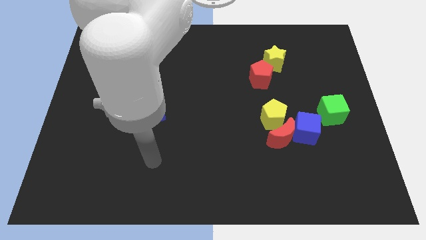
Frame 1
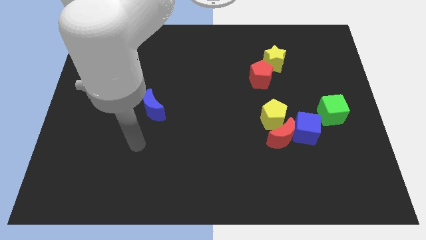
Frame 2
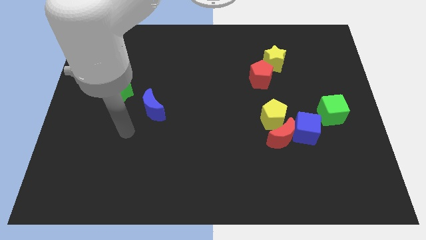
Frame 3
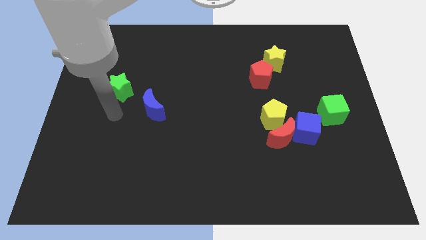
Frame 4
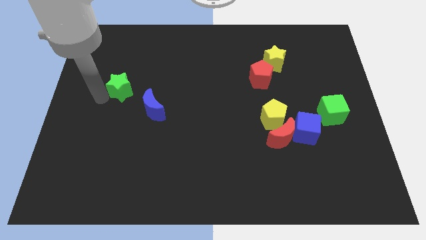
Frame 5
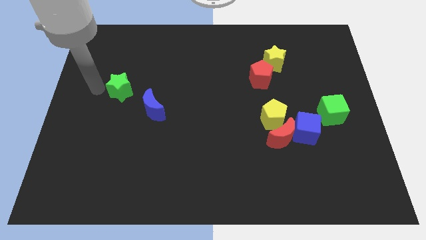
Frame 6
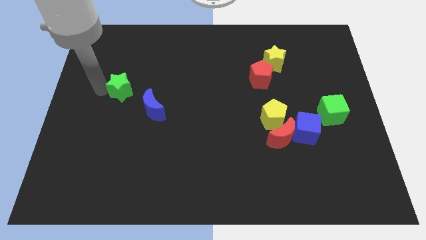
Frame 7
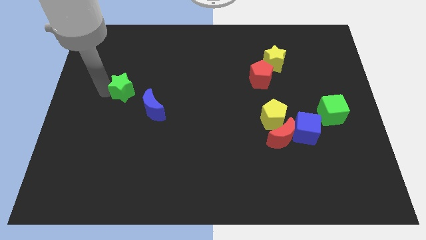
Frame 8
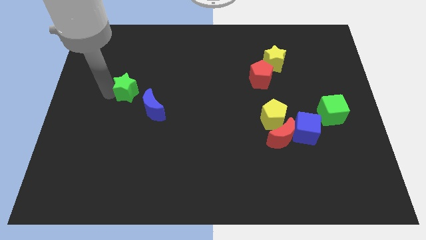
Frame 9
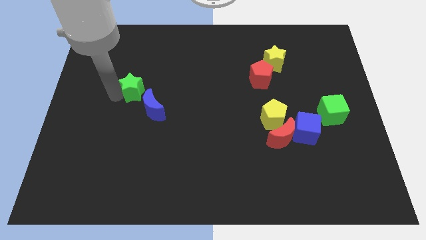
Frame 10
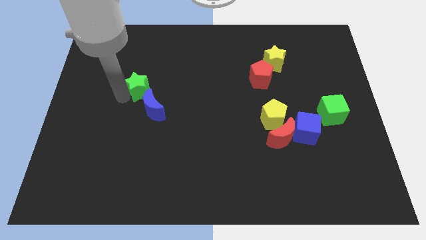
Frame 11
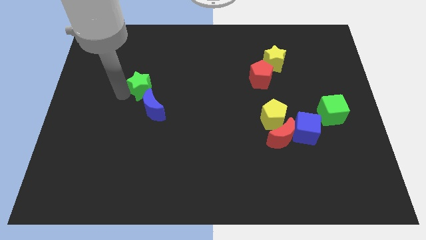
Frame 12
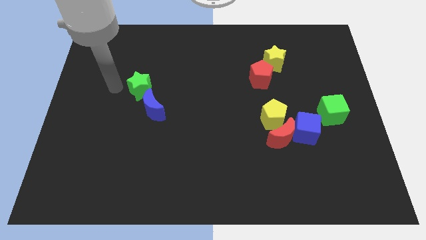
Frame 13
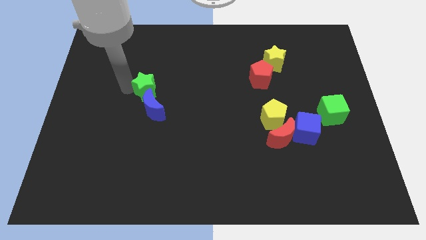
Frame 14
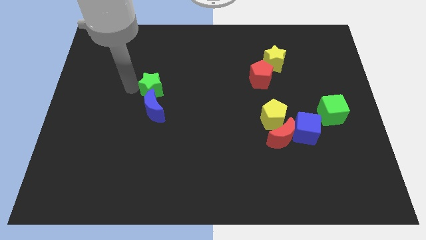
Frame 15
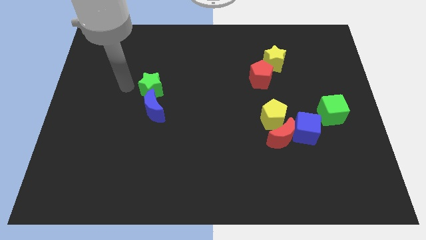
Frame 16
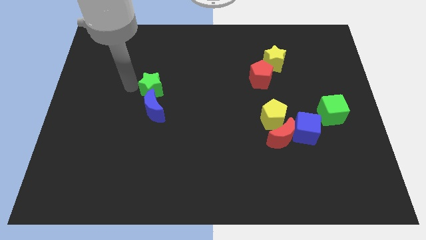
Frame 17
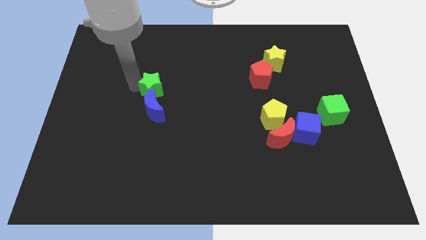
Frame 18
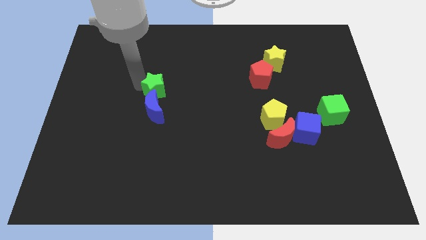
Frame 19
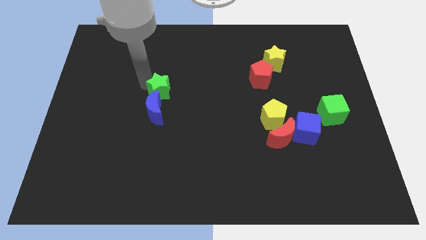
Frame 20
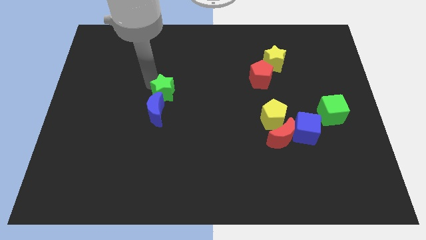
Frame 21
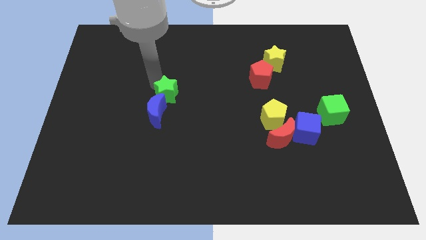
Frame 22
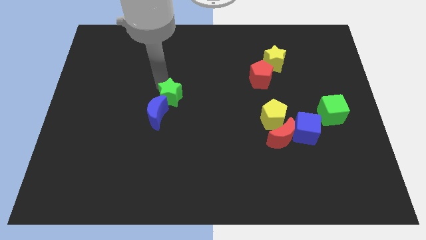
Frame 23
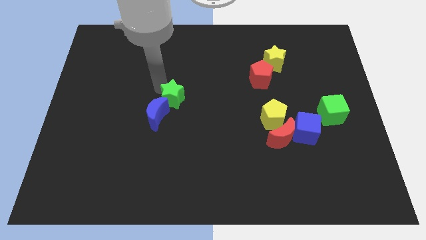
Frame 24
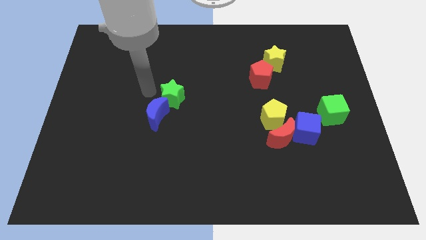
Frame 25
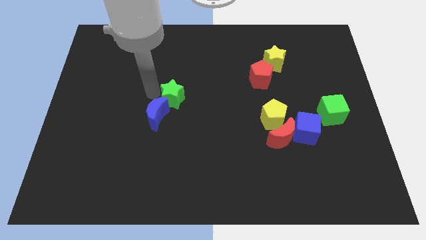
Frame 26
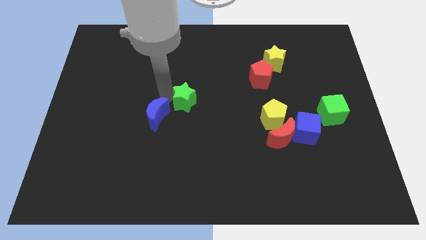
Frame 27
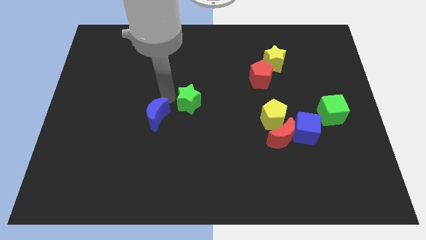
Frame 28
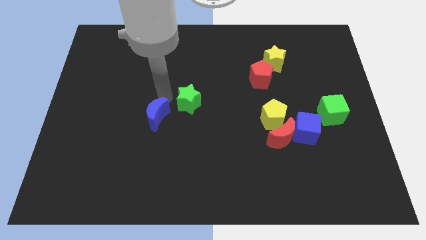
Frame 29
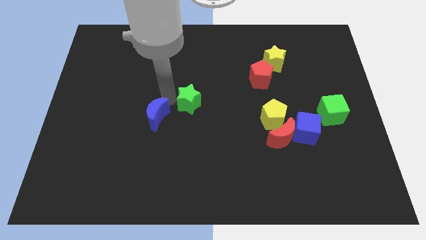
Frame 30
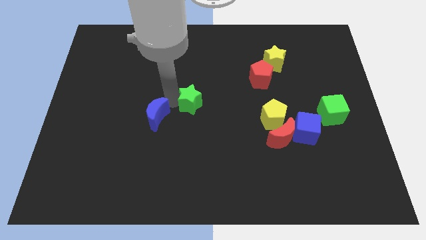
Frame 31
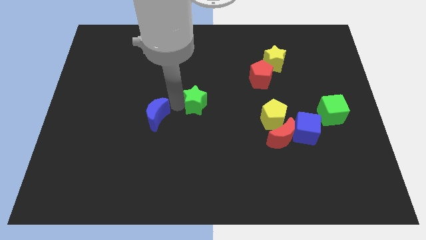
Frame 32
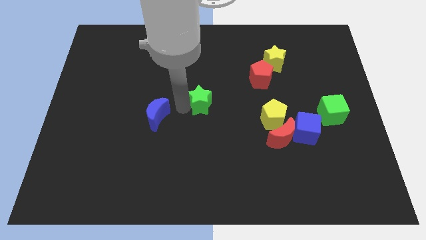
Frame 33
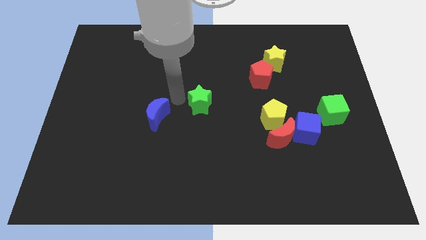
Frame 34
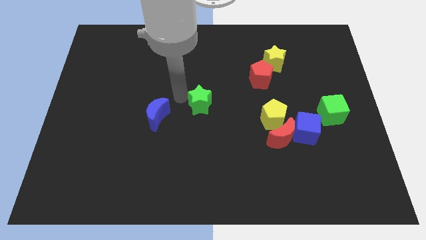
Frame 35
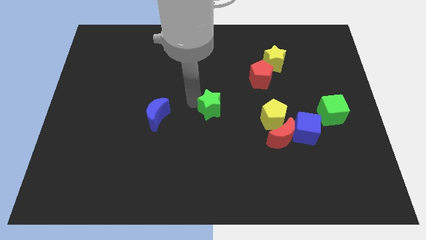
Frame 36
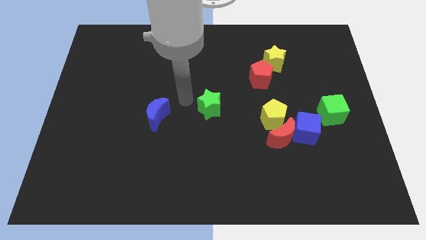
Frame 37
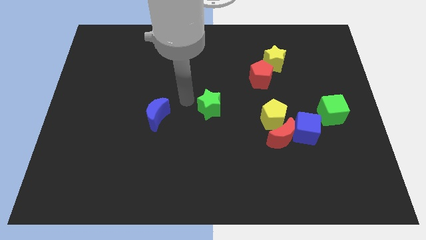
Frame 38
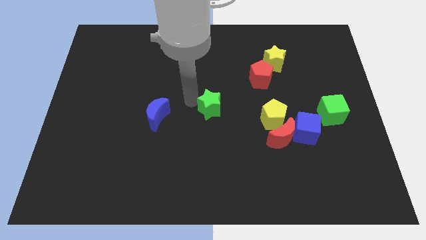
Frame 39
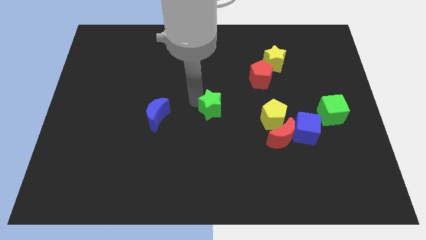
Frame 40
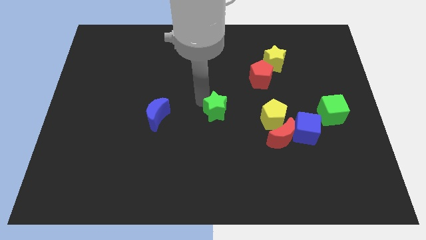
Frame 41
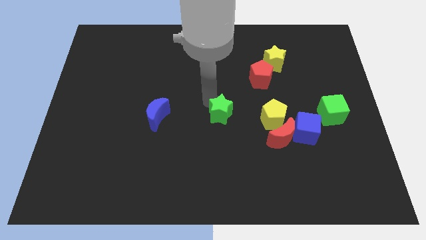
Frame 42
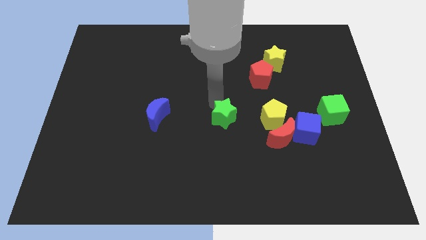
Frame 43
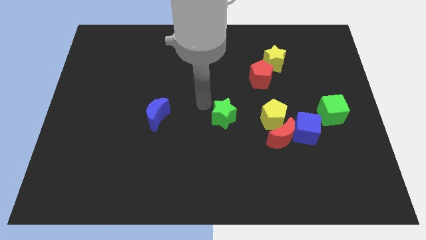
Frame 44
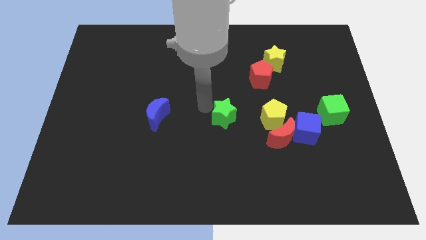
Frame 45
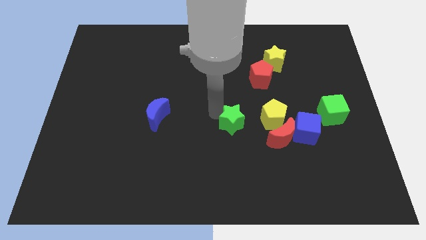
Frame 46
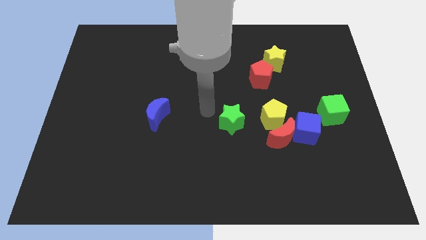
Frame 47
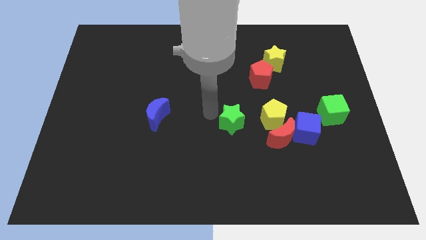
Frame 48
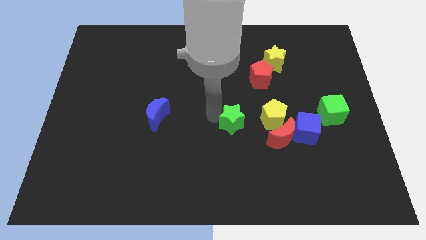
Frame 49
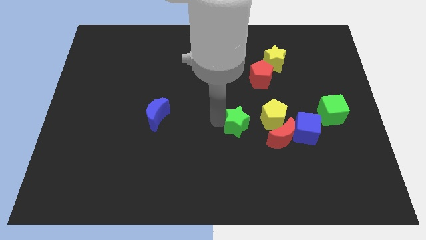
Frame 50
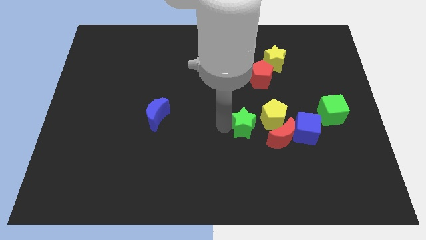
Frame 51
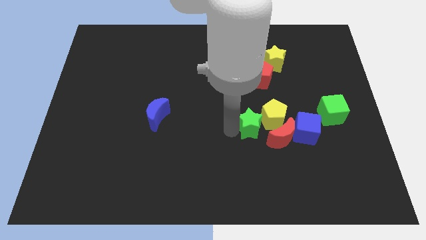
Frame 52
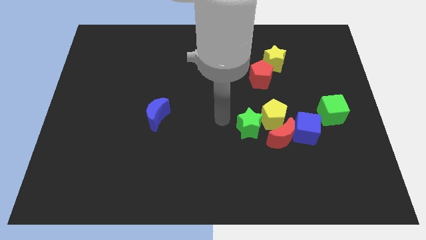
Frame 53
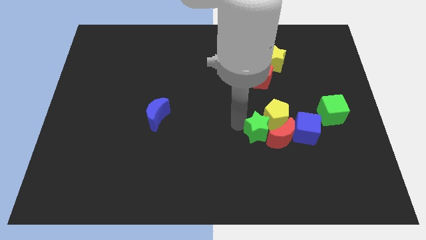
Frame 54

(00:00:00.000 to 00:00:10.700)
put the green star close to the red moon
